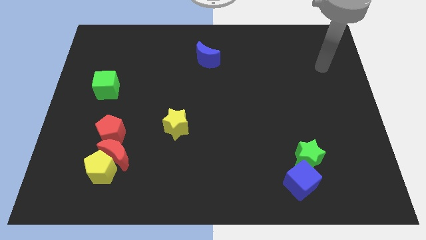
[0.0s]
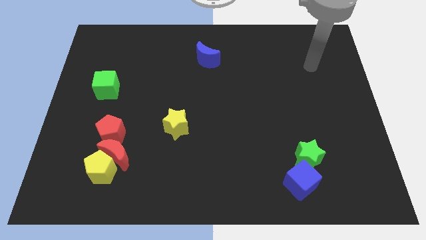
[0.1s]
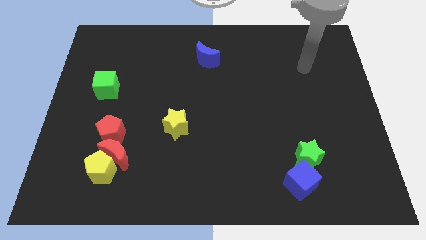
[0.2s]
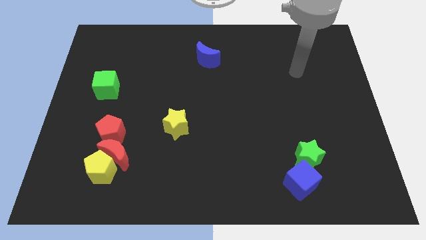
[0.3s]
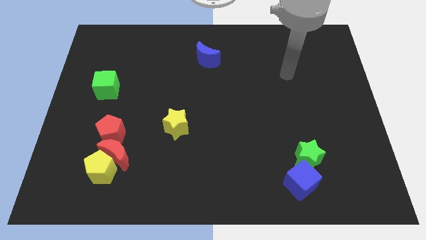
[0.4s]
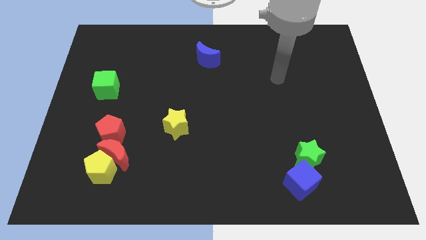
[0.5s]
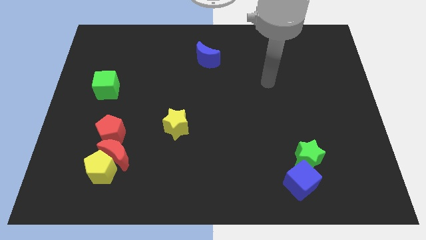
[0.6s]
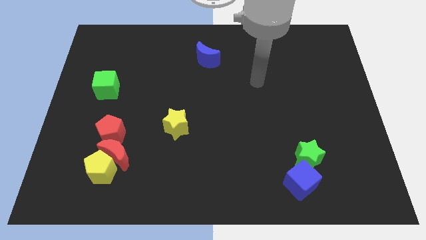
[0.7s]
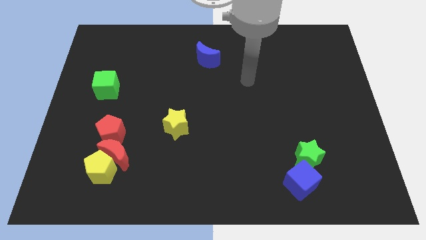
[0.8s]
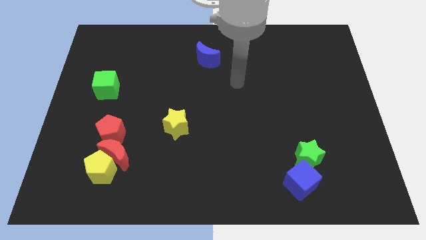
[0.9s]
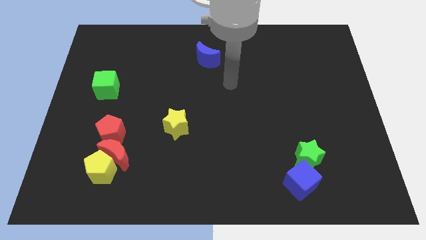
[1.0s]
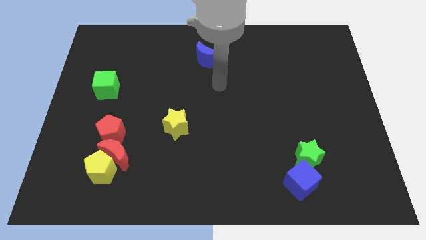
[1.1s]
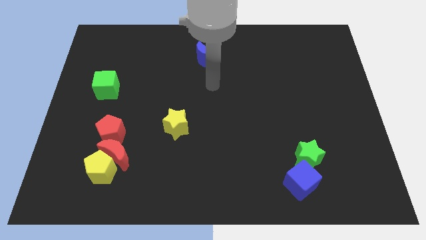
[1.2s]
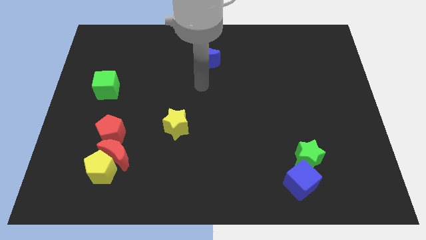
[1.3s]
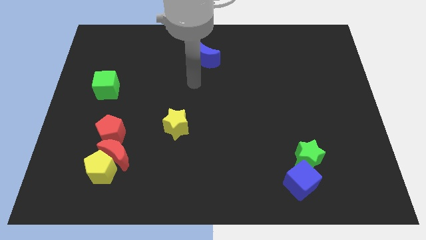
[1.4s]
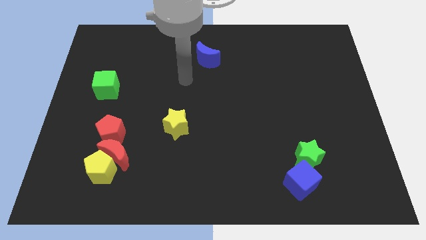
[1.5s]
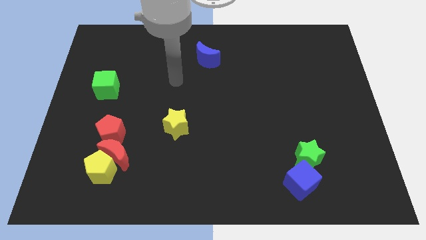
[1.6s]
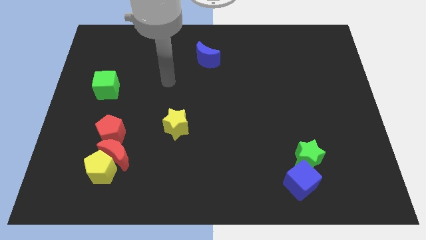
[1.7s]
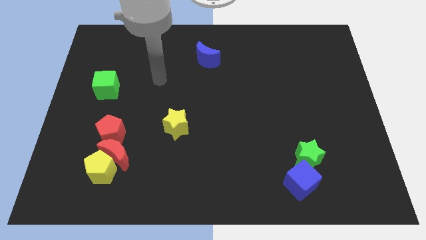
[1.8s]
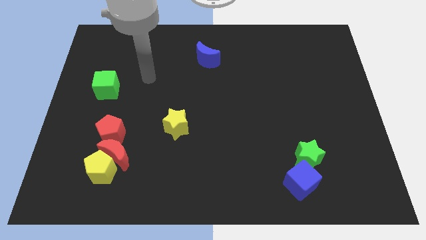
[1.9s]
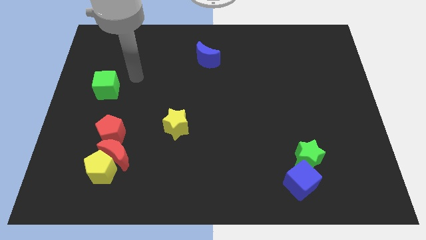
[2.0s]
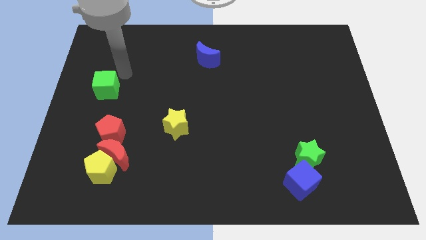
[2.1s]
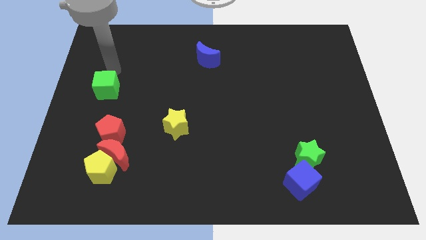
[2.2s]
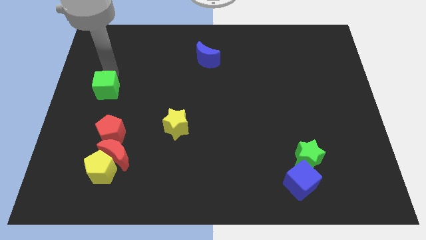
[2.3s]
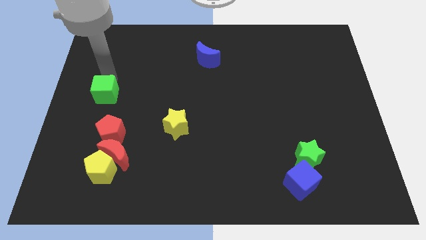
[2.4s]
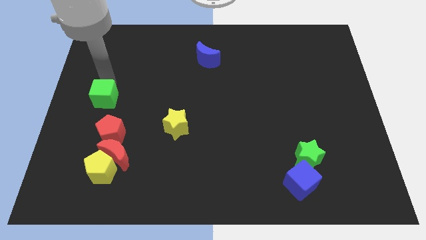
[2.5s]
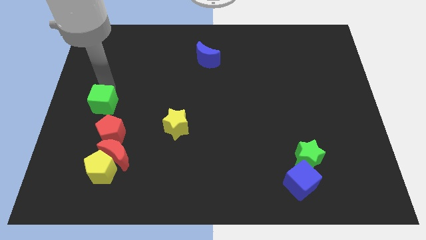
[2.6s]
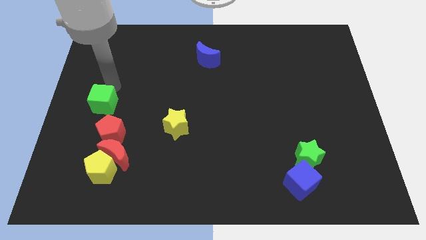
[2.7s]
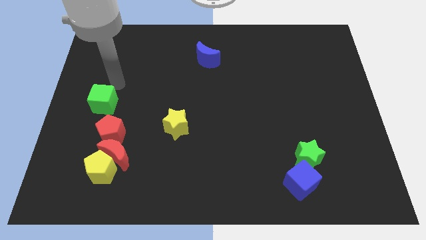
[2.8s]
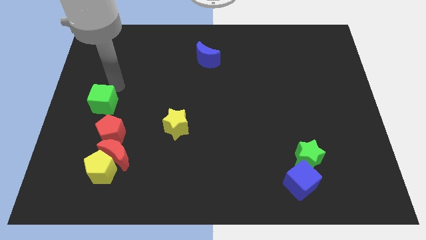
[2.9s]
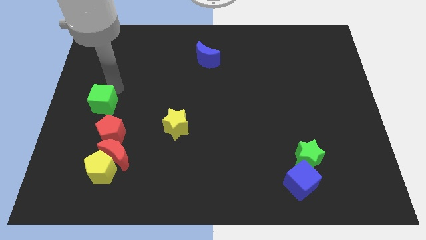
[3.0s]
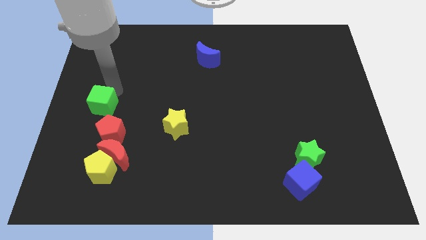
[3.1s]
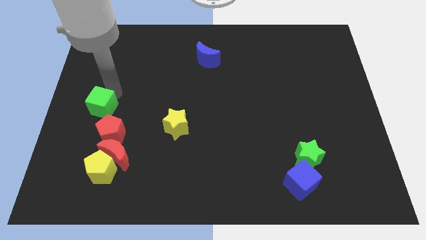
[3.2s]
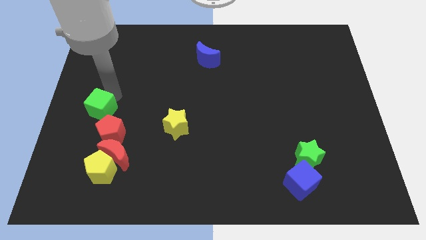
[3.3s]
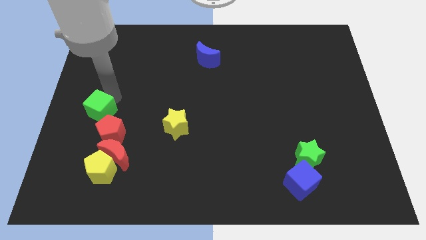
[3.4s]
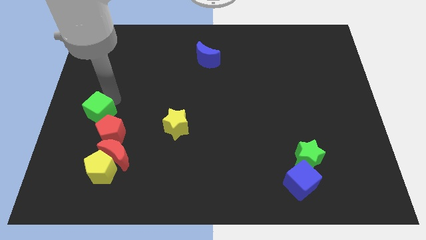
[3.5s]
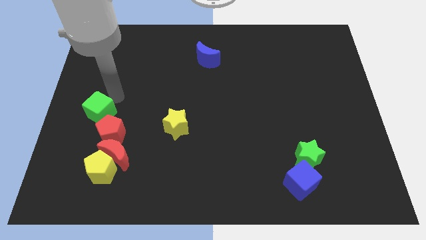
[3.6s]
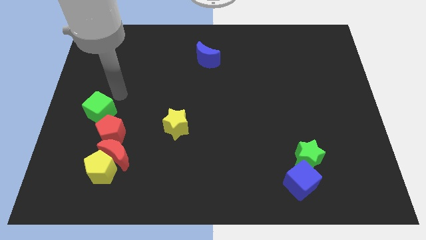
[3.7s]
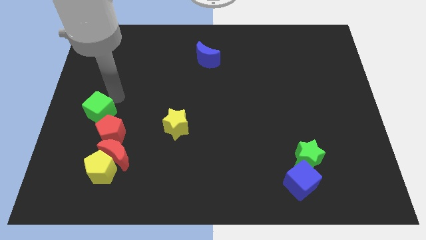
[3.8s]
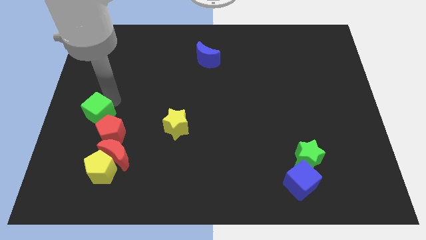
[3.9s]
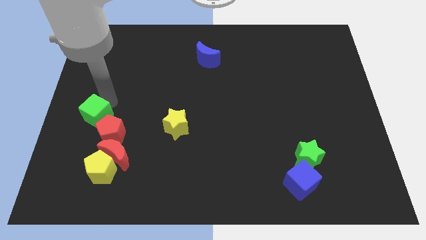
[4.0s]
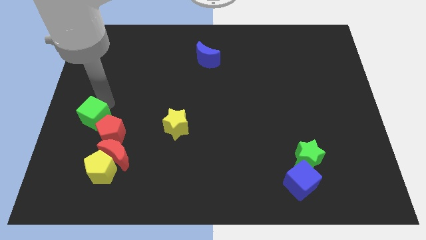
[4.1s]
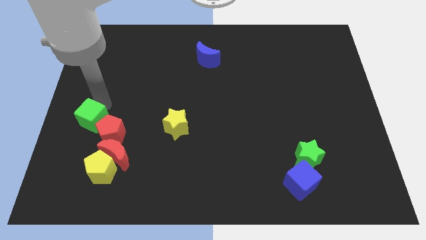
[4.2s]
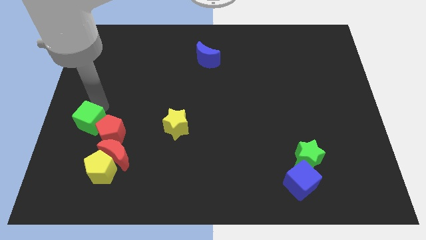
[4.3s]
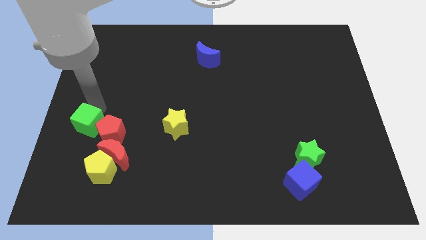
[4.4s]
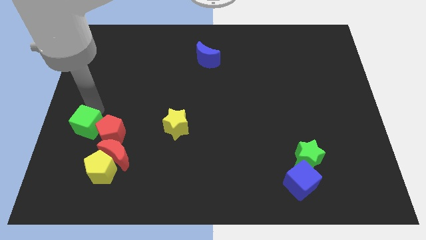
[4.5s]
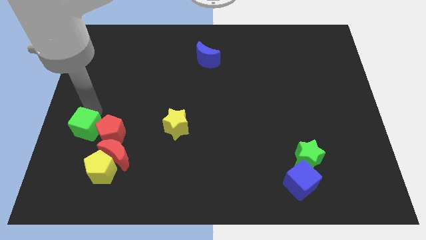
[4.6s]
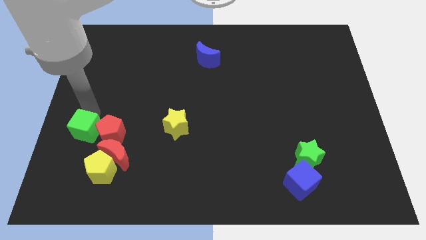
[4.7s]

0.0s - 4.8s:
slide the green cube to the bottom left side of the red pentagon

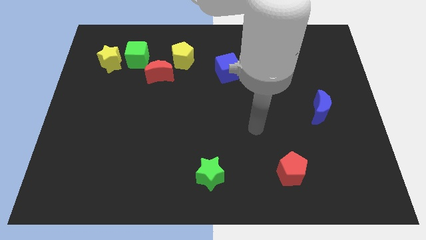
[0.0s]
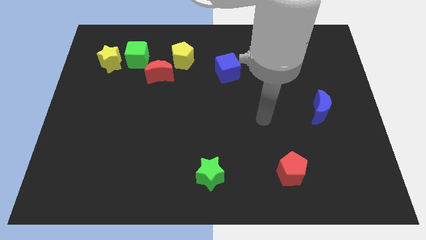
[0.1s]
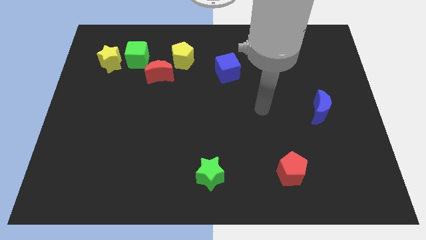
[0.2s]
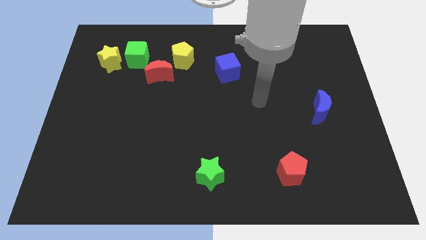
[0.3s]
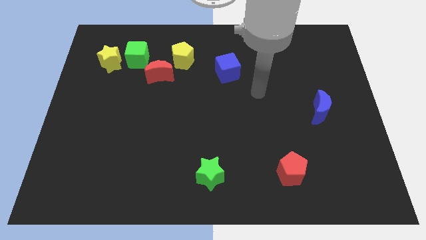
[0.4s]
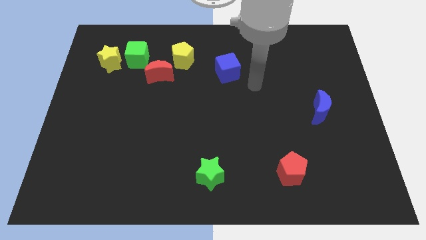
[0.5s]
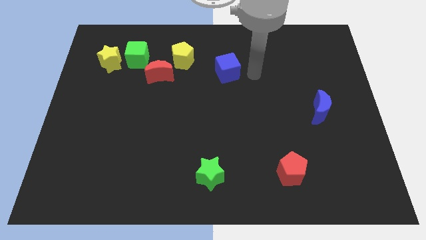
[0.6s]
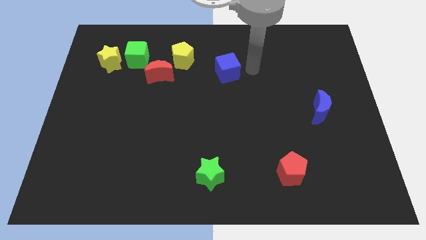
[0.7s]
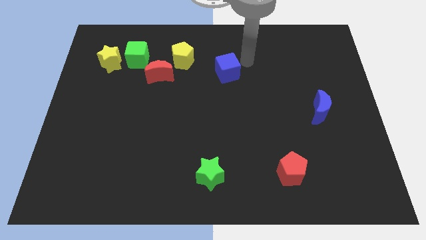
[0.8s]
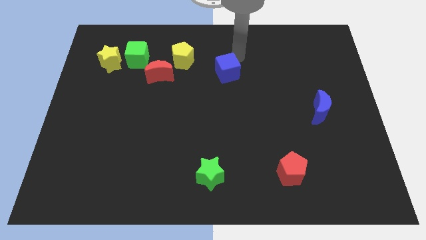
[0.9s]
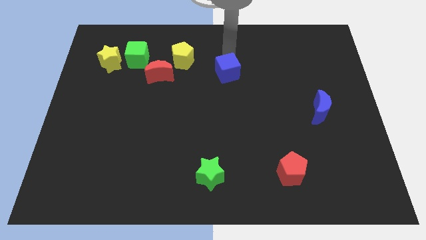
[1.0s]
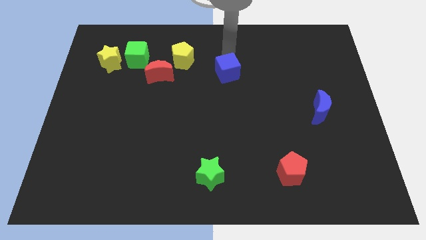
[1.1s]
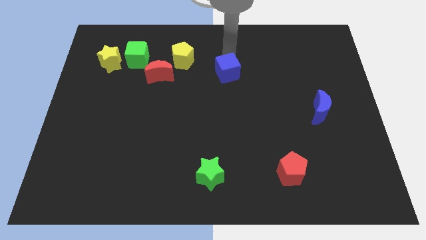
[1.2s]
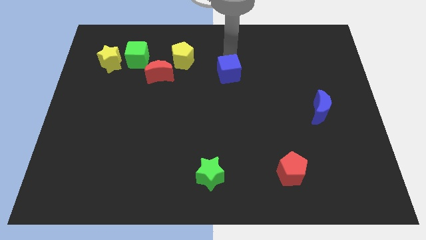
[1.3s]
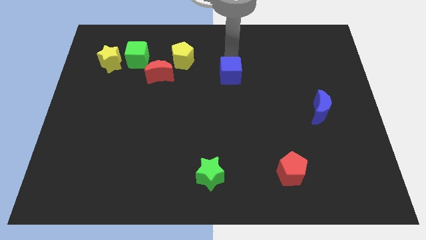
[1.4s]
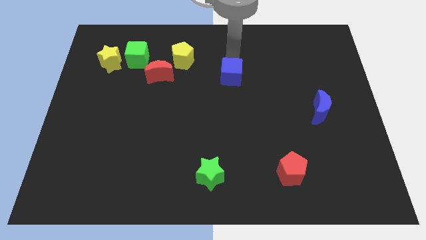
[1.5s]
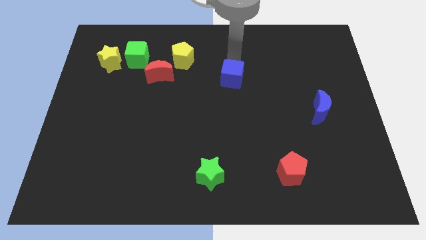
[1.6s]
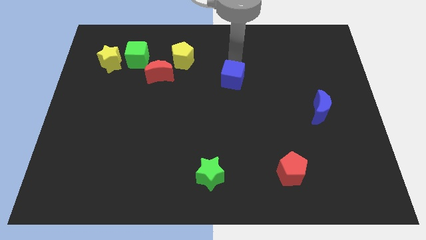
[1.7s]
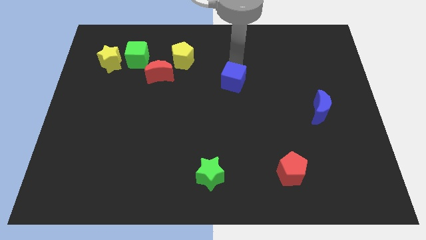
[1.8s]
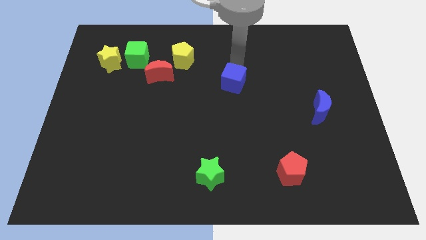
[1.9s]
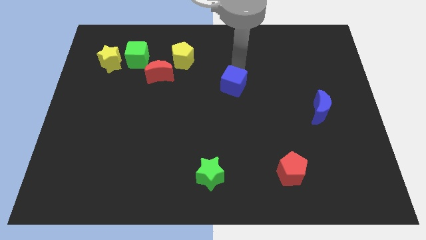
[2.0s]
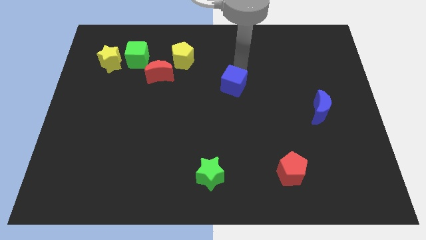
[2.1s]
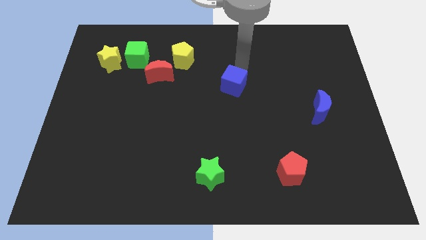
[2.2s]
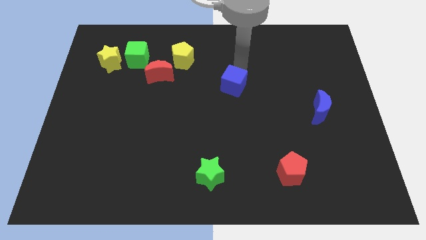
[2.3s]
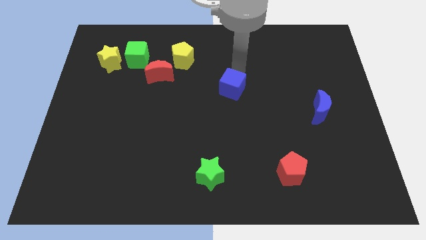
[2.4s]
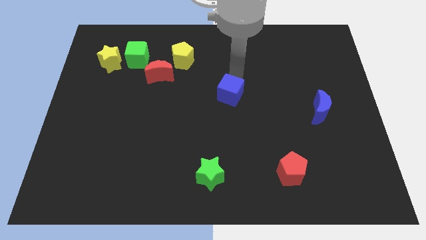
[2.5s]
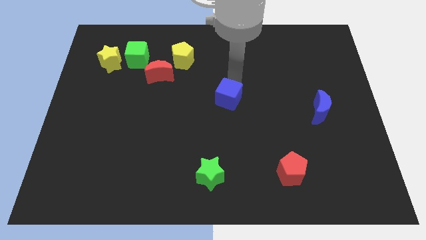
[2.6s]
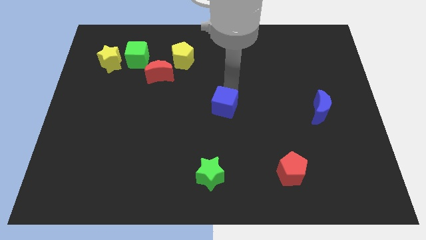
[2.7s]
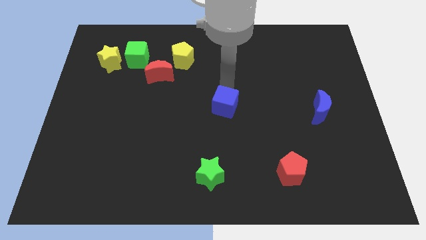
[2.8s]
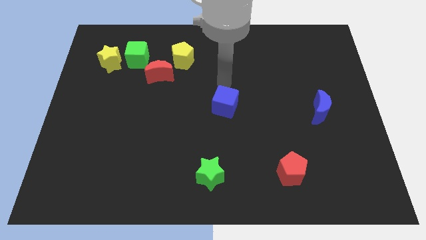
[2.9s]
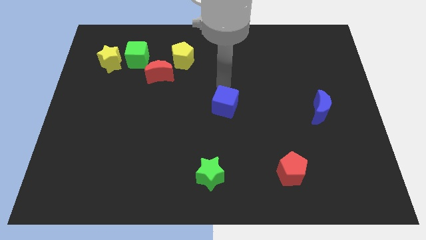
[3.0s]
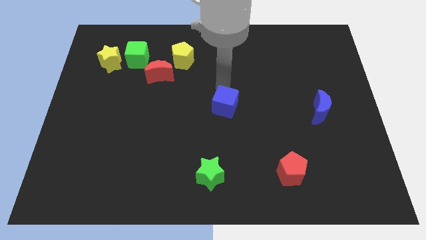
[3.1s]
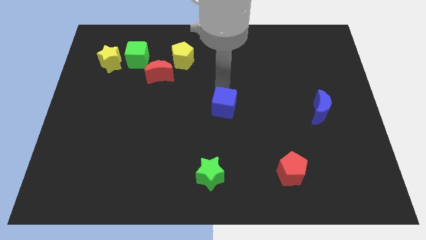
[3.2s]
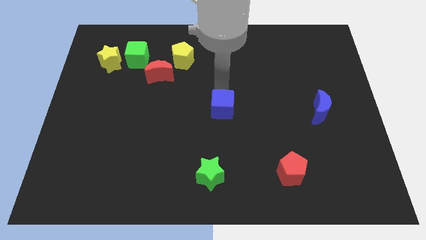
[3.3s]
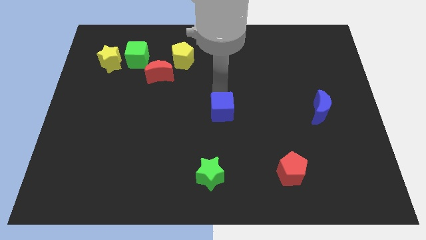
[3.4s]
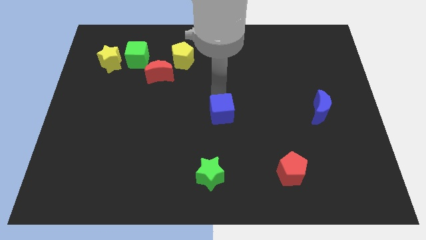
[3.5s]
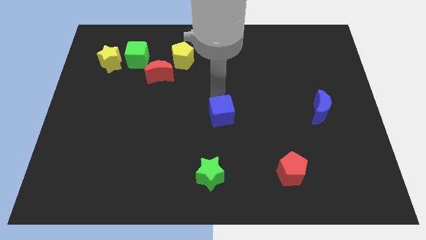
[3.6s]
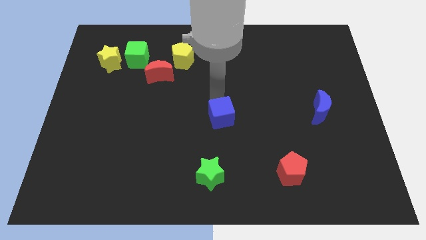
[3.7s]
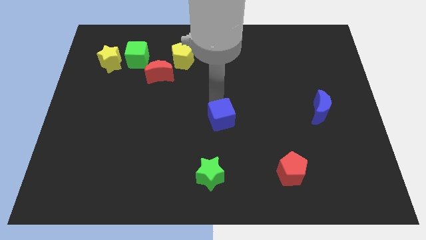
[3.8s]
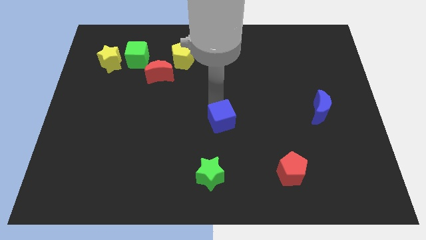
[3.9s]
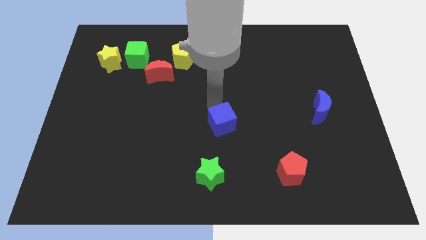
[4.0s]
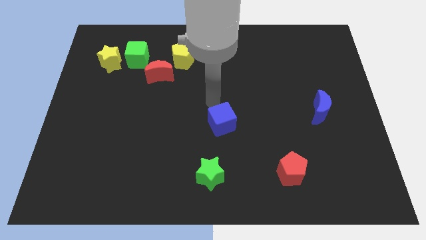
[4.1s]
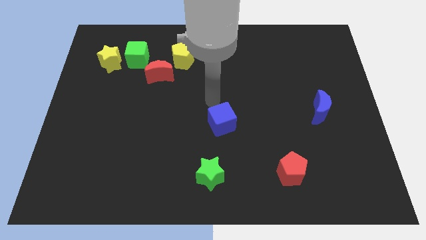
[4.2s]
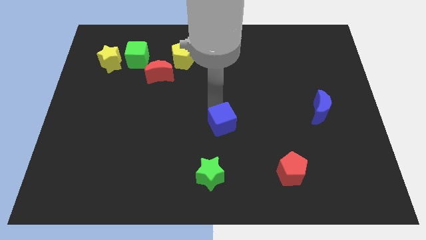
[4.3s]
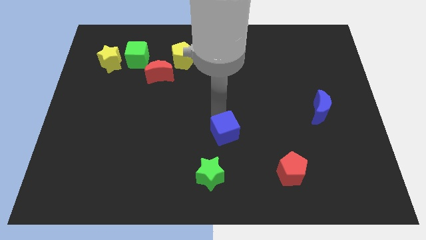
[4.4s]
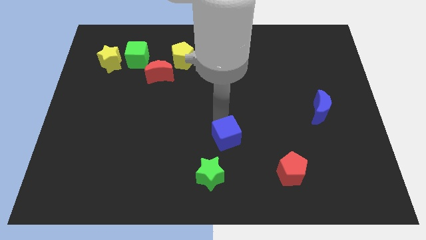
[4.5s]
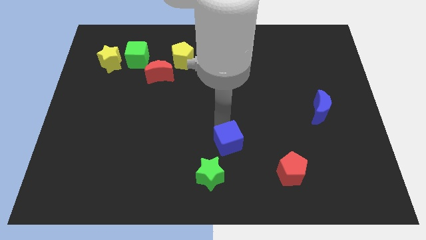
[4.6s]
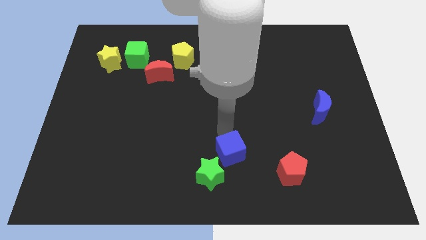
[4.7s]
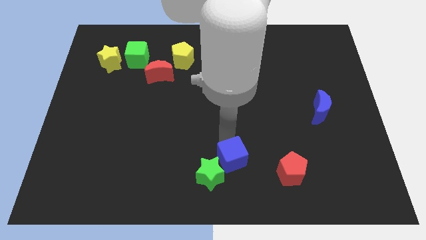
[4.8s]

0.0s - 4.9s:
put the blue cube just left of the red pentagon
